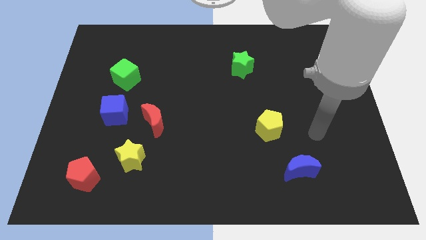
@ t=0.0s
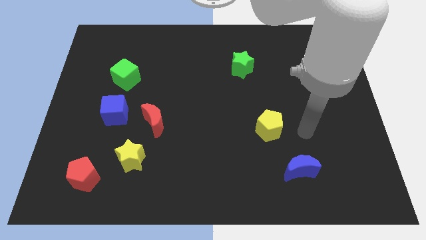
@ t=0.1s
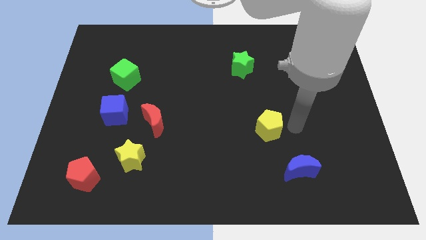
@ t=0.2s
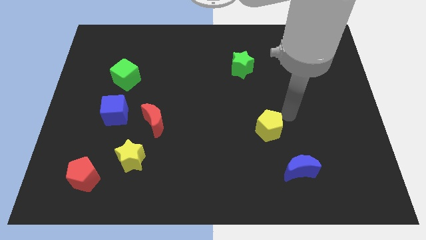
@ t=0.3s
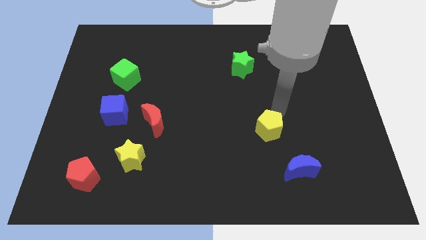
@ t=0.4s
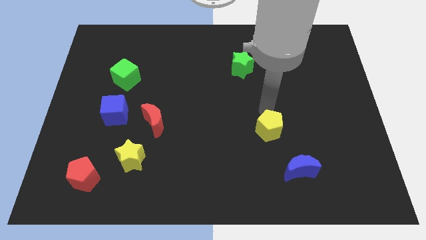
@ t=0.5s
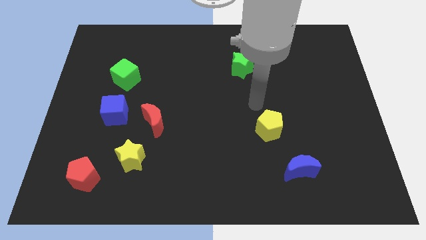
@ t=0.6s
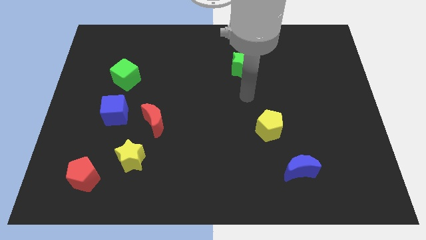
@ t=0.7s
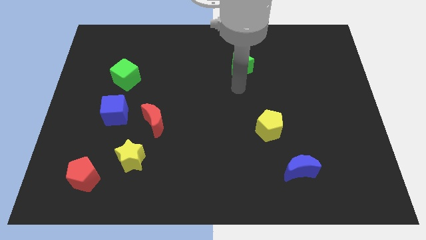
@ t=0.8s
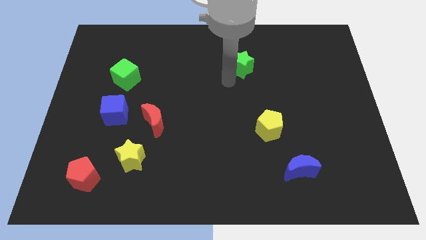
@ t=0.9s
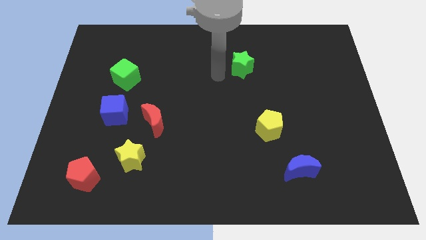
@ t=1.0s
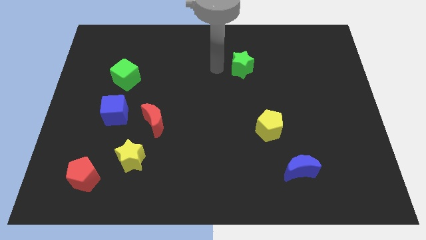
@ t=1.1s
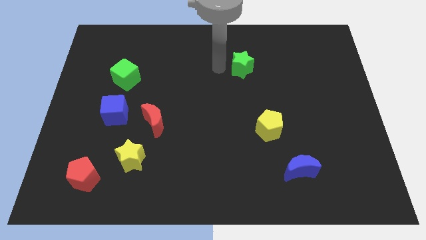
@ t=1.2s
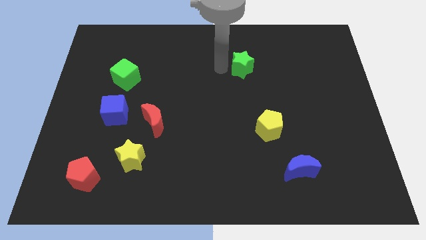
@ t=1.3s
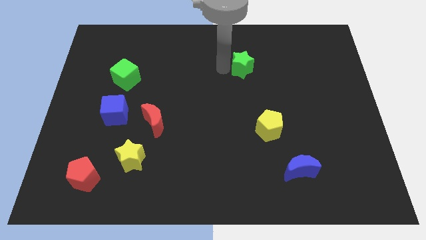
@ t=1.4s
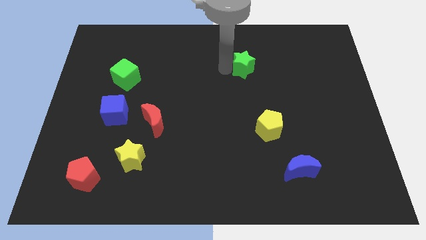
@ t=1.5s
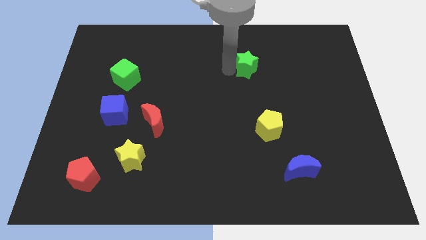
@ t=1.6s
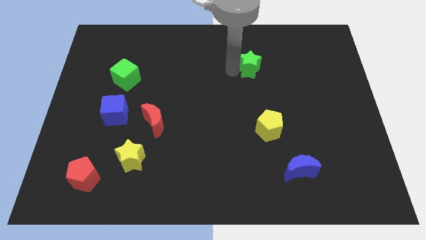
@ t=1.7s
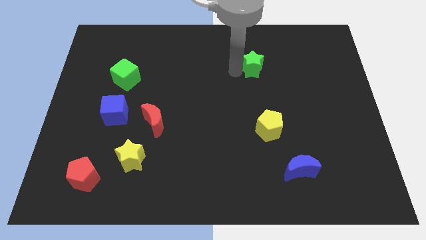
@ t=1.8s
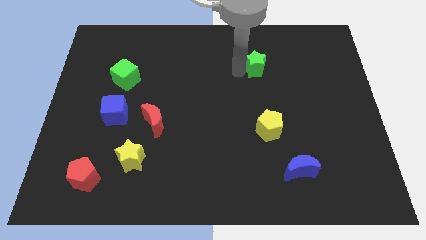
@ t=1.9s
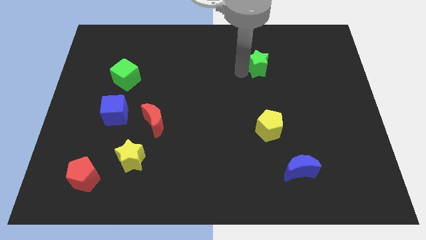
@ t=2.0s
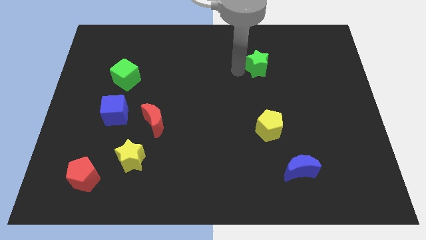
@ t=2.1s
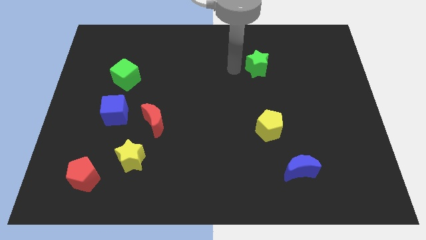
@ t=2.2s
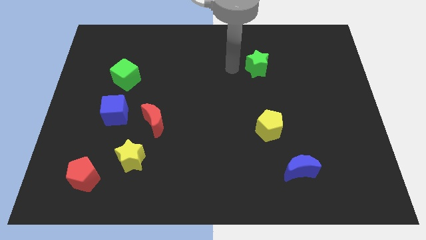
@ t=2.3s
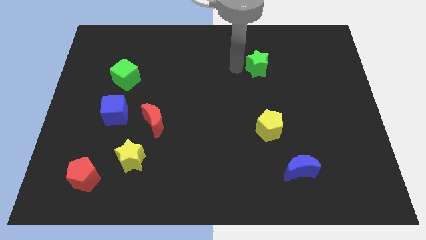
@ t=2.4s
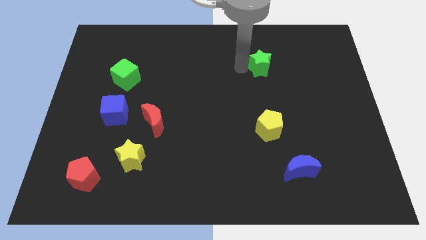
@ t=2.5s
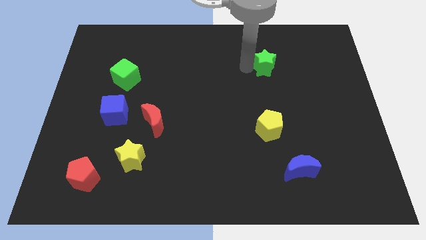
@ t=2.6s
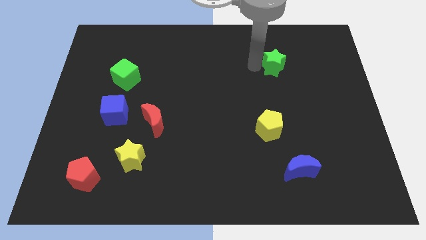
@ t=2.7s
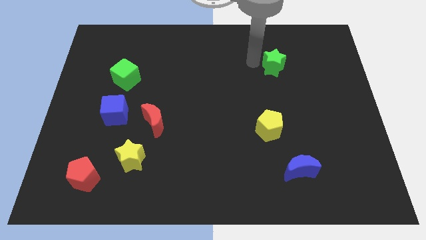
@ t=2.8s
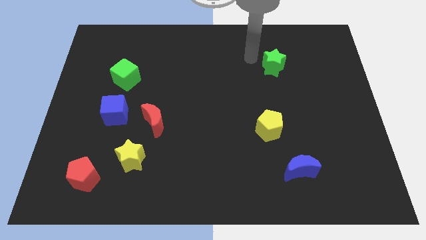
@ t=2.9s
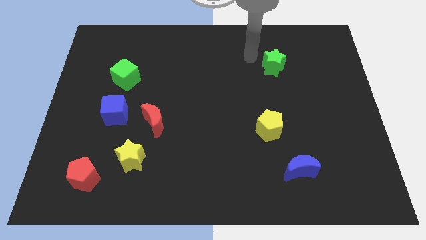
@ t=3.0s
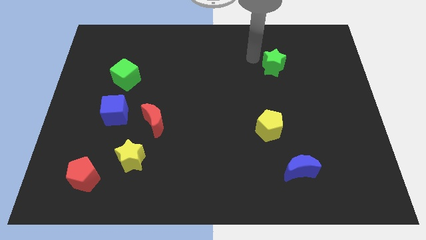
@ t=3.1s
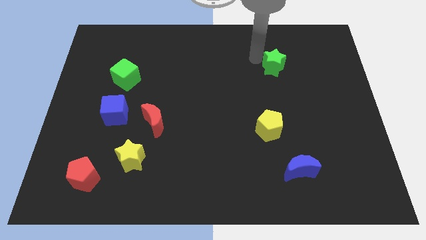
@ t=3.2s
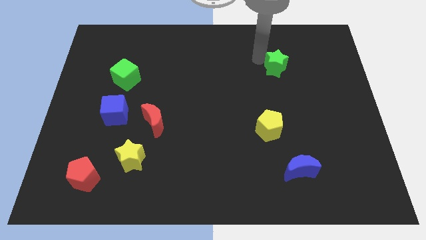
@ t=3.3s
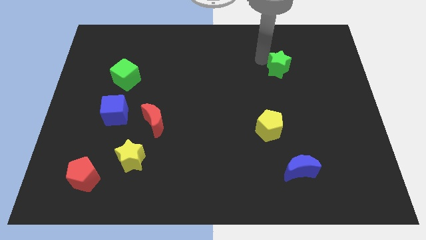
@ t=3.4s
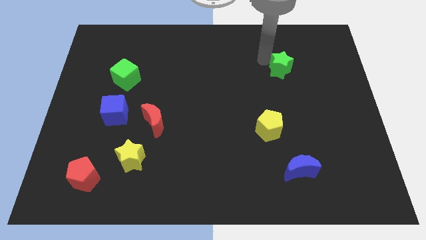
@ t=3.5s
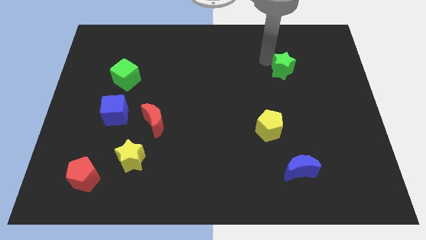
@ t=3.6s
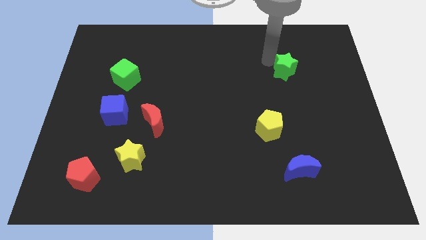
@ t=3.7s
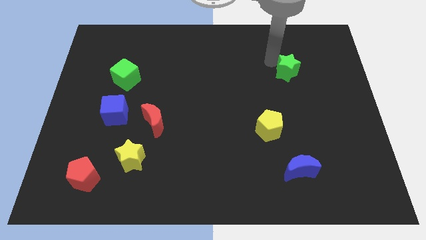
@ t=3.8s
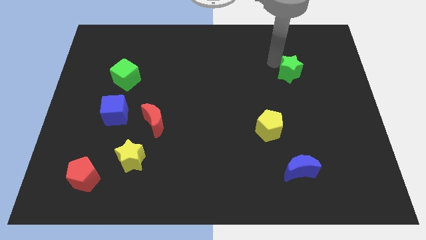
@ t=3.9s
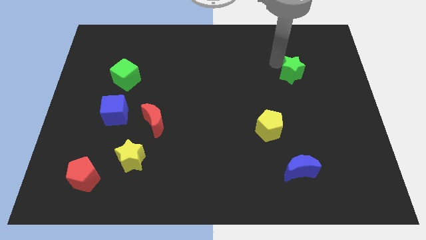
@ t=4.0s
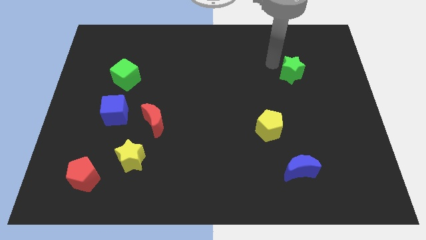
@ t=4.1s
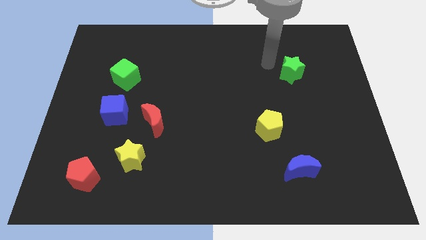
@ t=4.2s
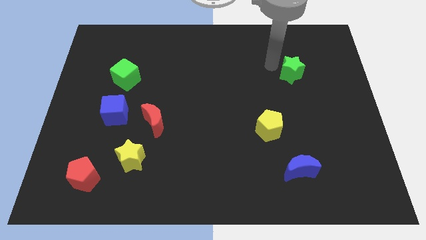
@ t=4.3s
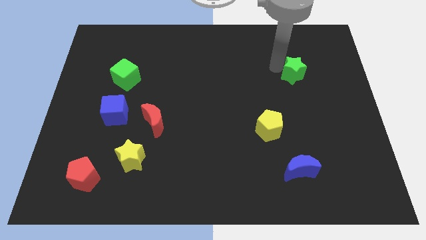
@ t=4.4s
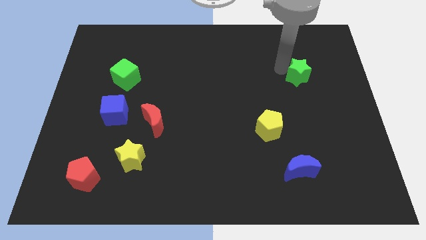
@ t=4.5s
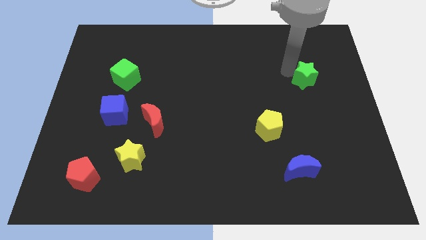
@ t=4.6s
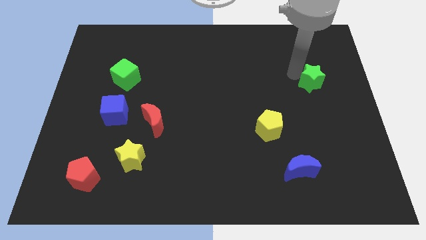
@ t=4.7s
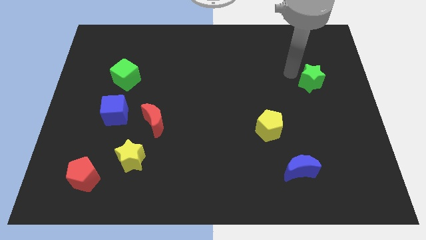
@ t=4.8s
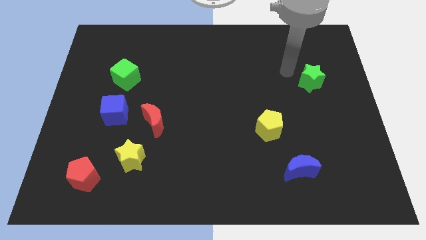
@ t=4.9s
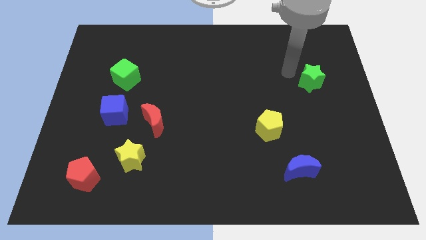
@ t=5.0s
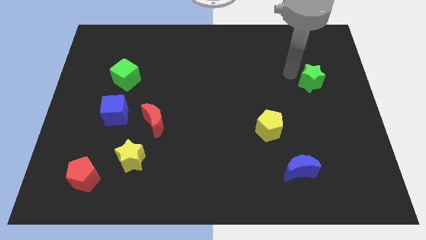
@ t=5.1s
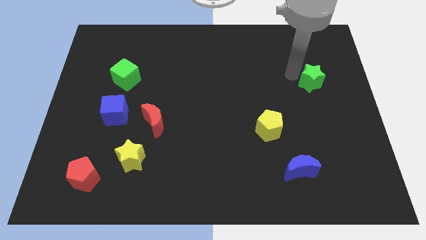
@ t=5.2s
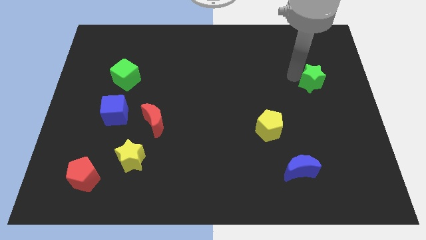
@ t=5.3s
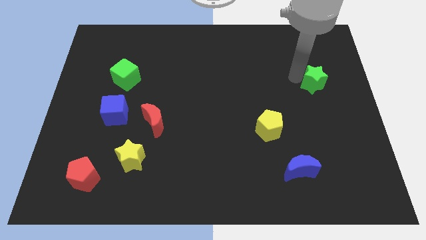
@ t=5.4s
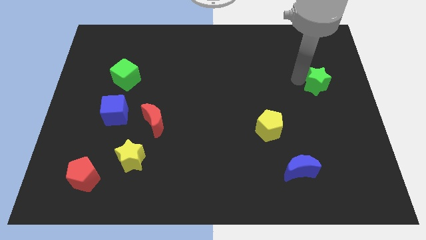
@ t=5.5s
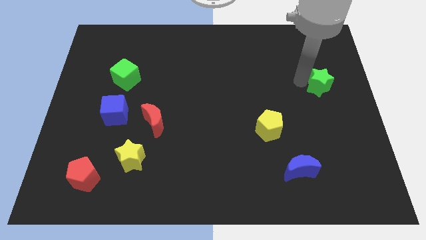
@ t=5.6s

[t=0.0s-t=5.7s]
slide the green star to the right side

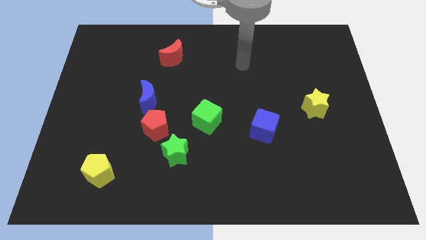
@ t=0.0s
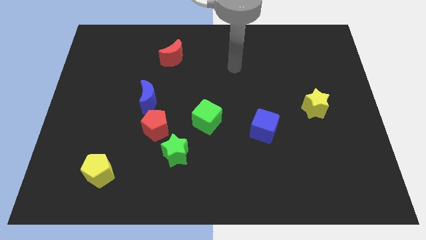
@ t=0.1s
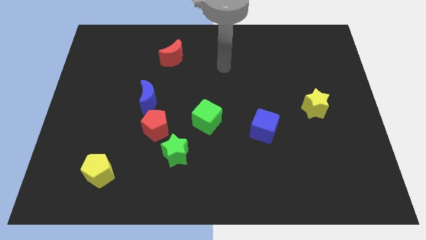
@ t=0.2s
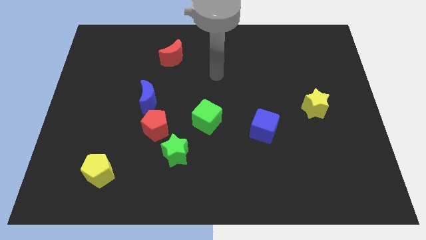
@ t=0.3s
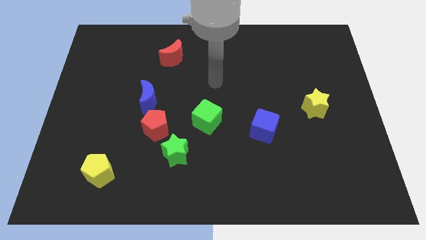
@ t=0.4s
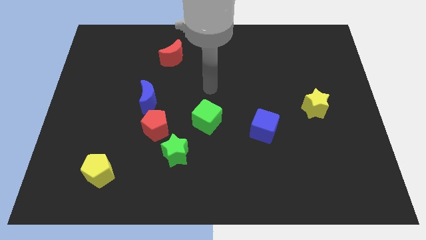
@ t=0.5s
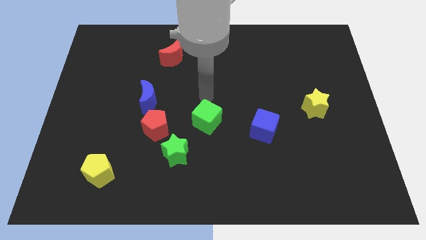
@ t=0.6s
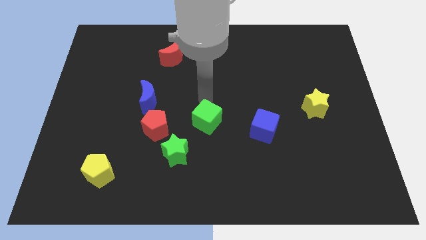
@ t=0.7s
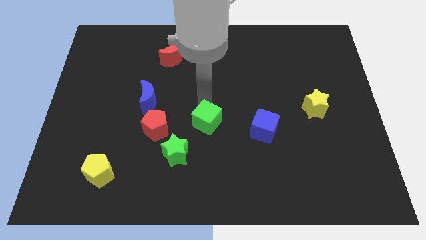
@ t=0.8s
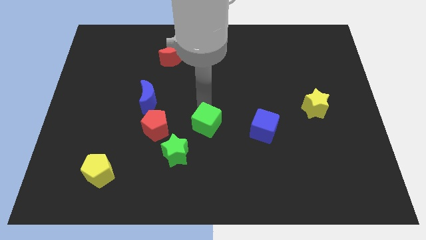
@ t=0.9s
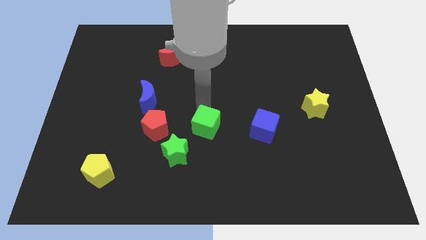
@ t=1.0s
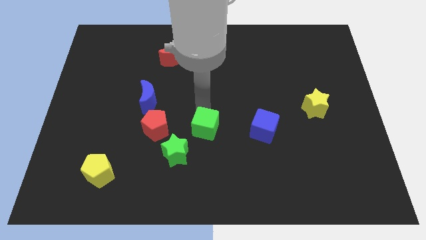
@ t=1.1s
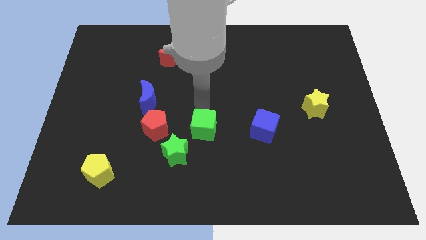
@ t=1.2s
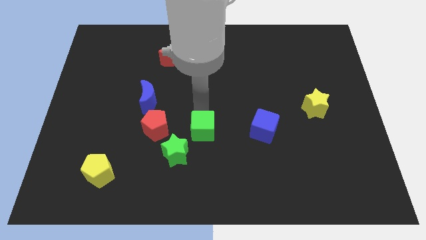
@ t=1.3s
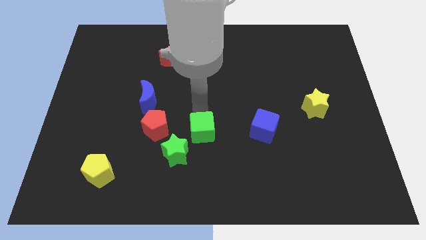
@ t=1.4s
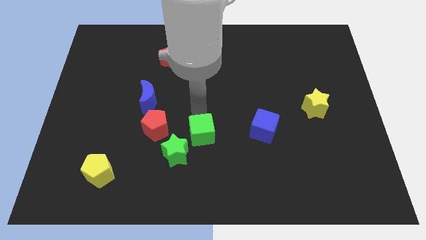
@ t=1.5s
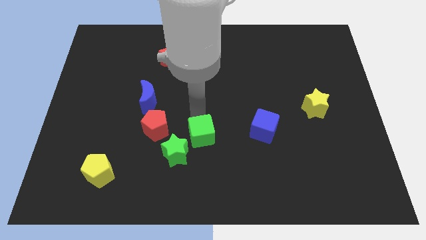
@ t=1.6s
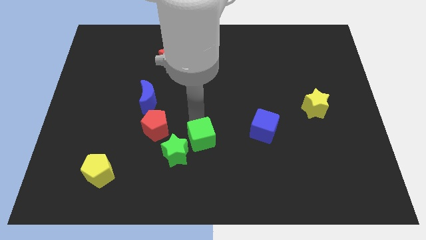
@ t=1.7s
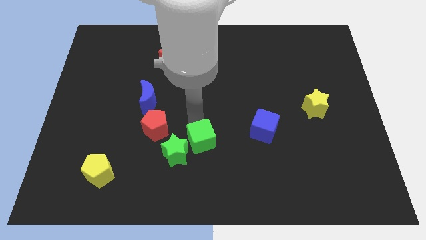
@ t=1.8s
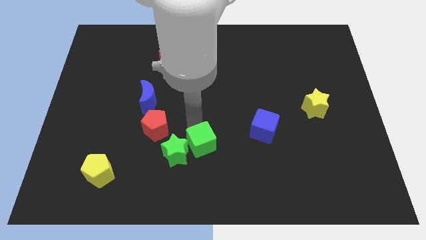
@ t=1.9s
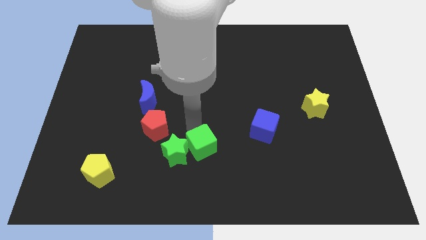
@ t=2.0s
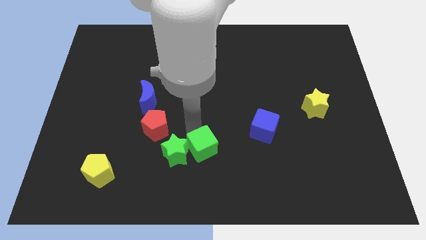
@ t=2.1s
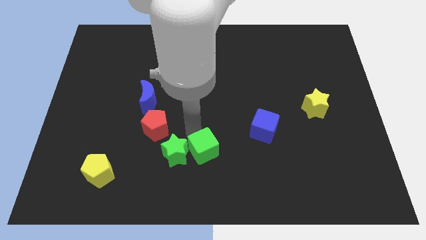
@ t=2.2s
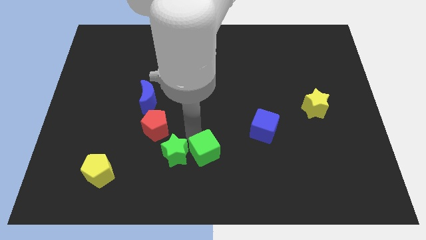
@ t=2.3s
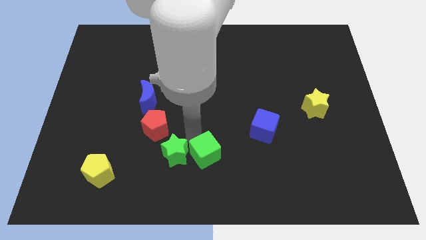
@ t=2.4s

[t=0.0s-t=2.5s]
put the green cube to the bottom
